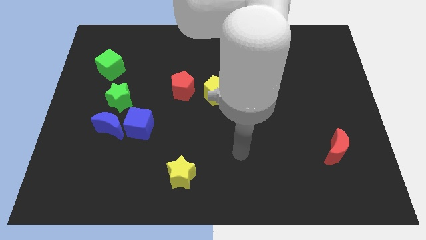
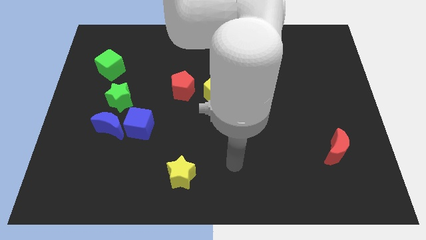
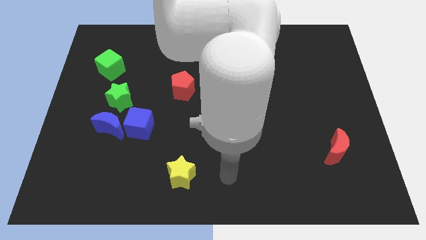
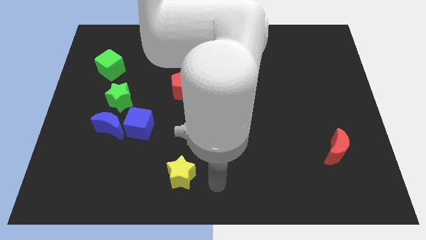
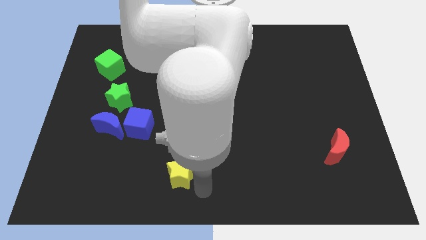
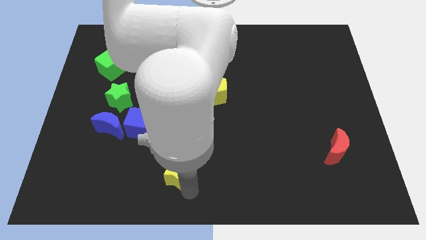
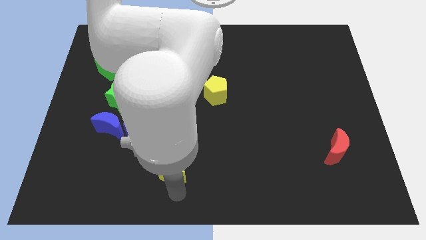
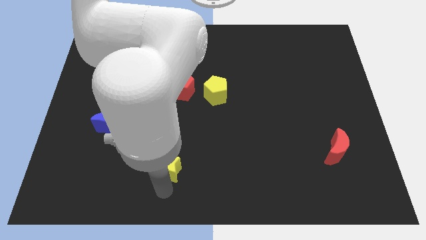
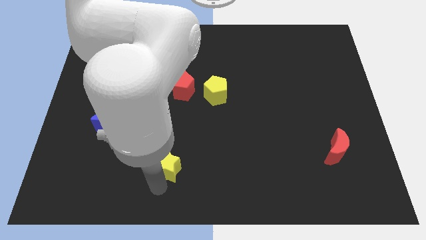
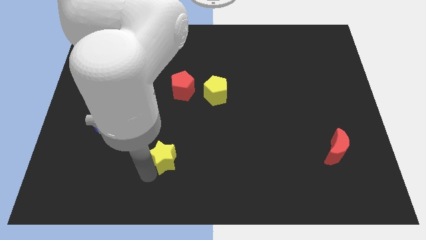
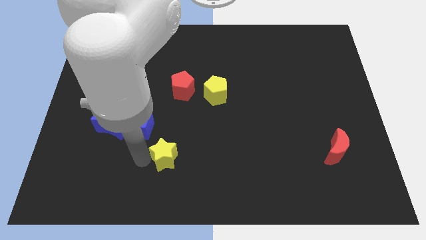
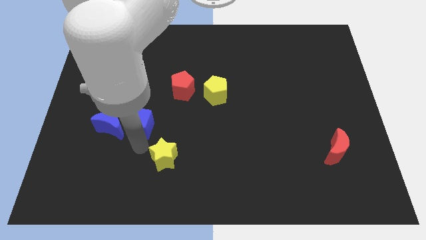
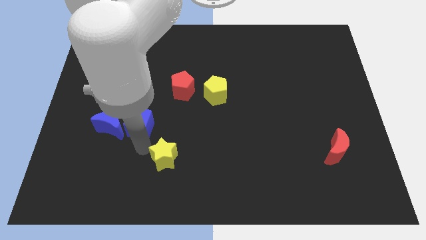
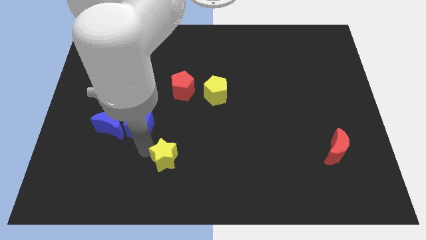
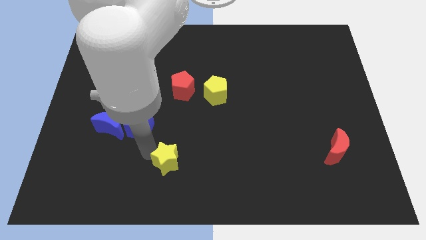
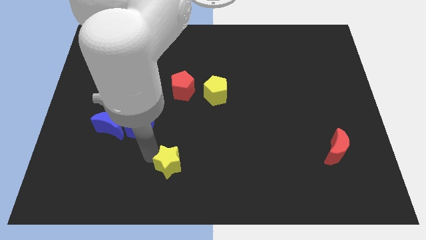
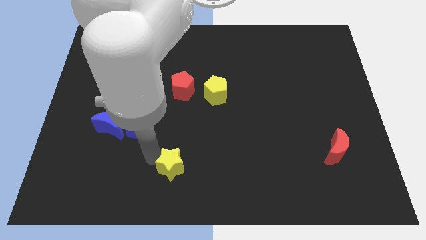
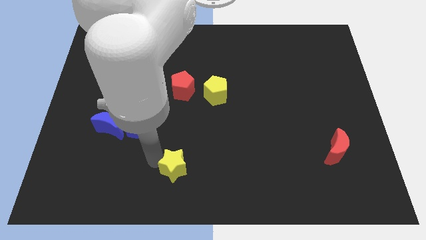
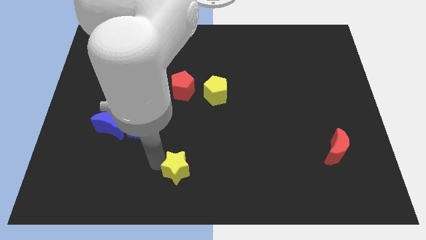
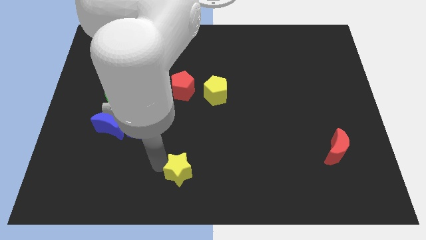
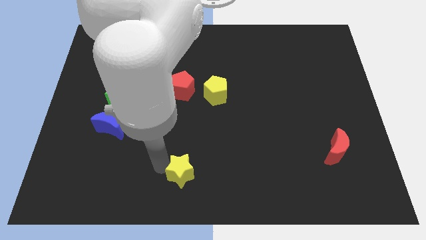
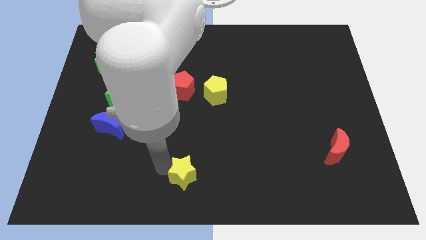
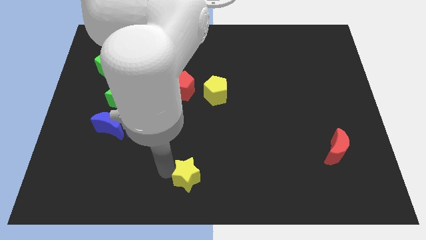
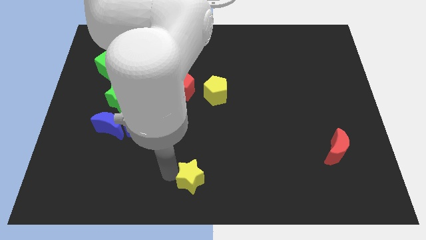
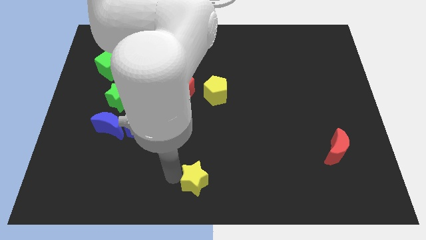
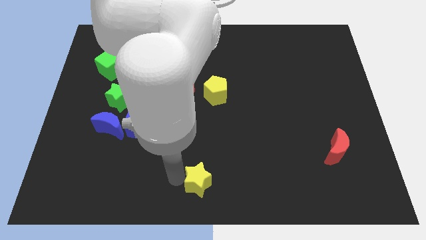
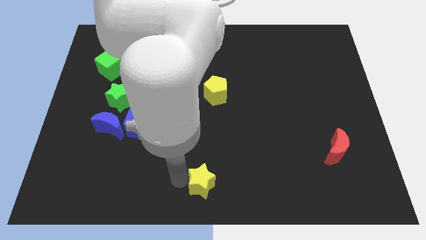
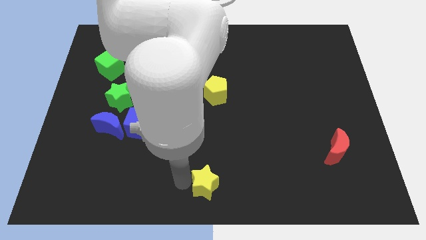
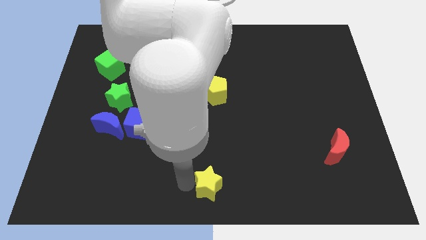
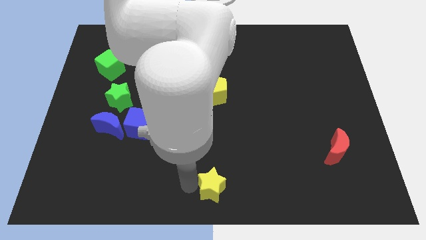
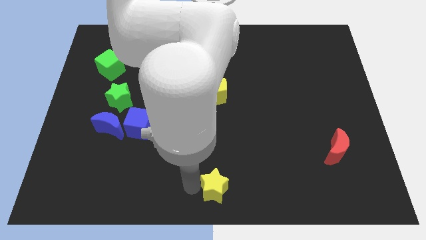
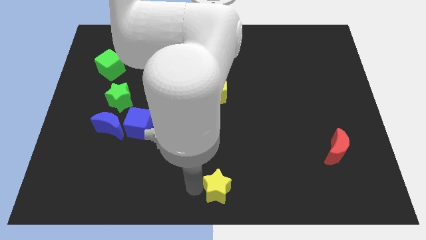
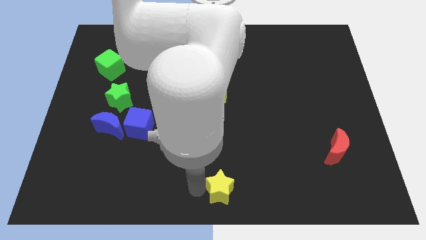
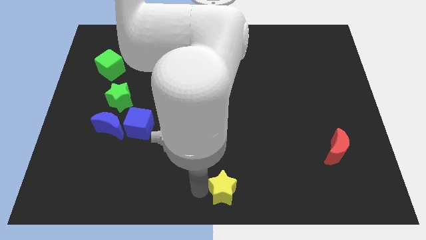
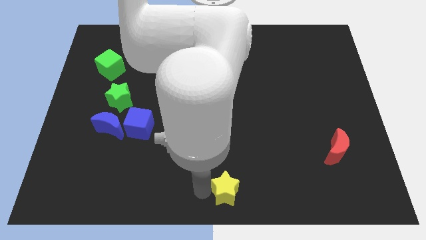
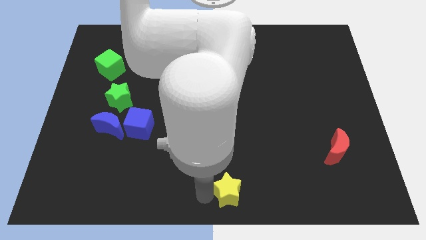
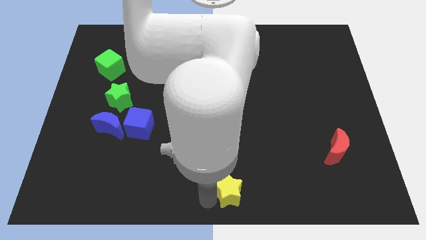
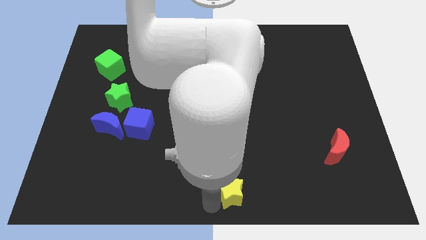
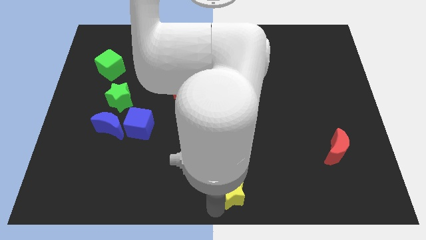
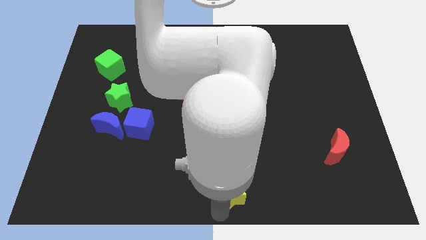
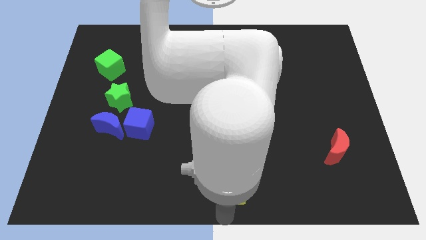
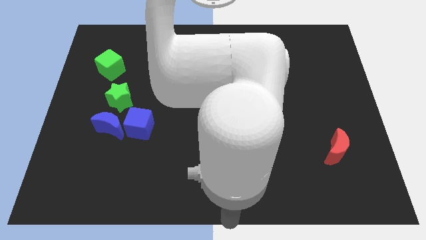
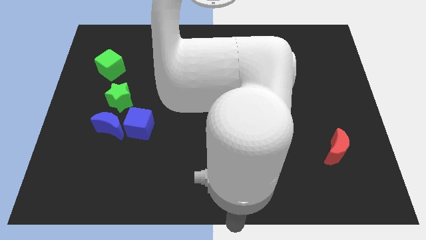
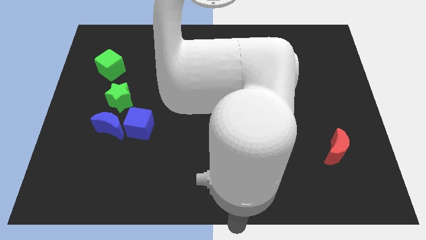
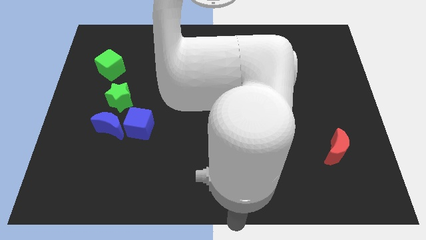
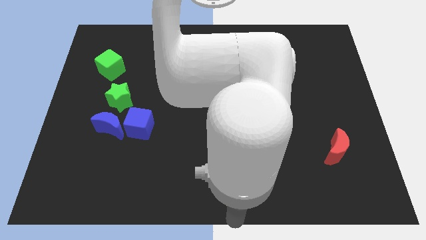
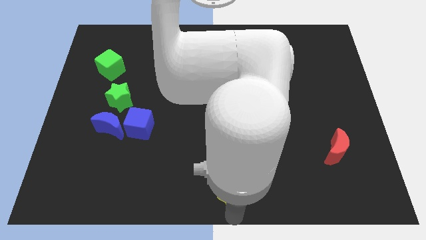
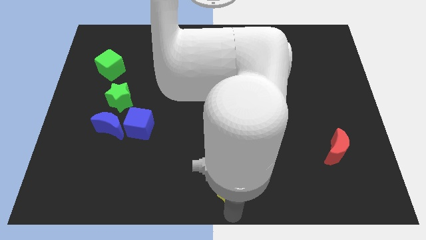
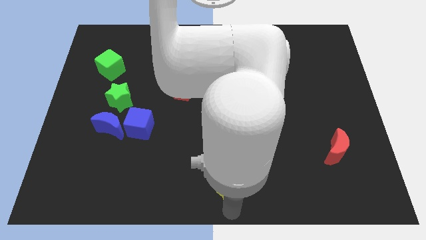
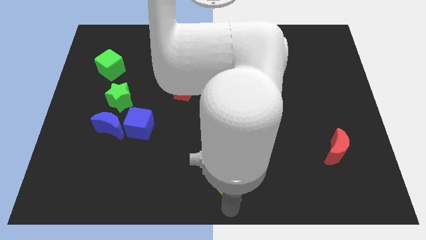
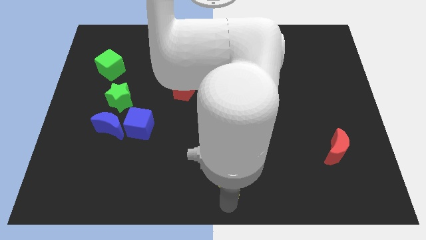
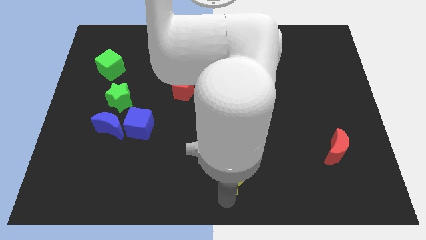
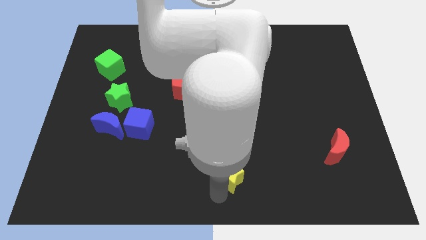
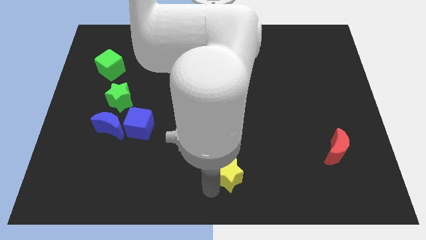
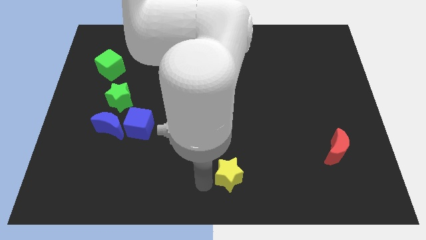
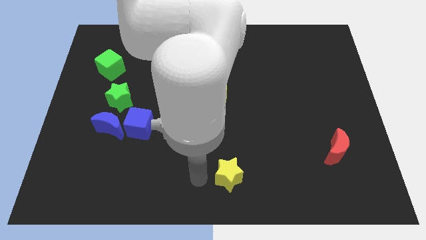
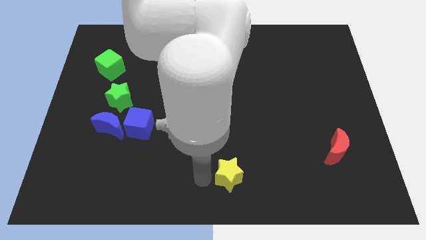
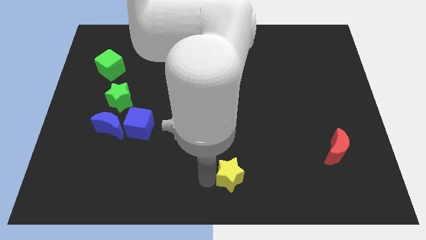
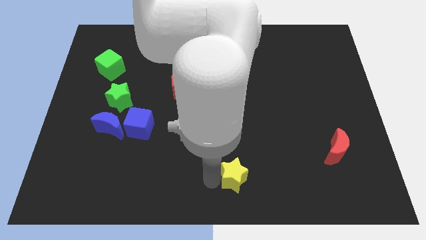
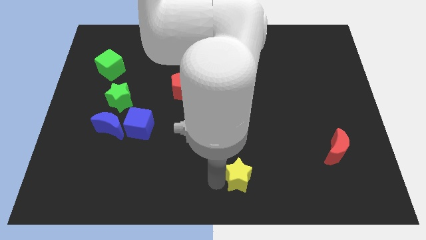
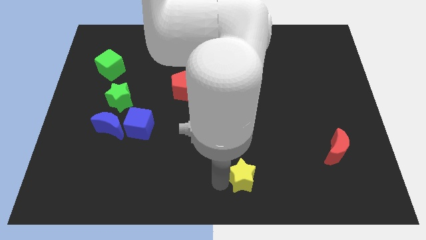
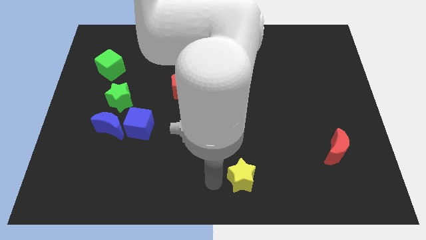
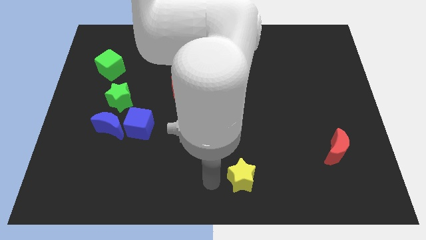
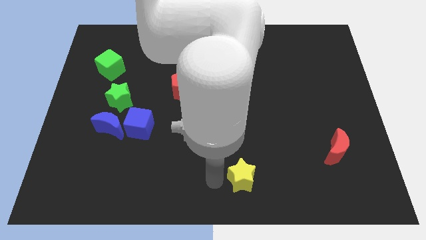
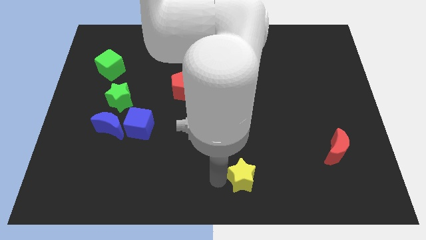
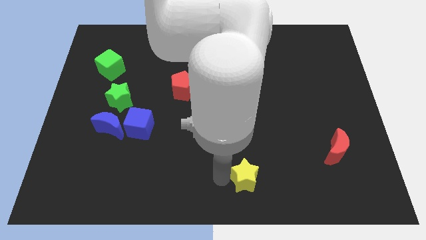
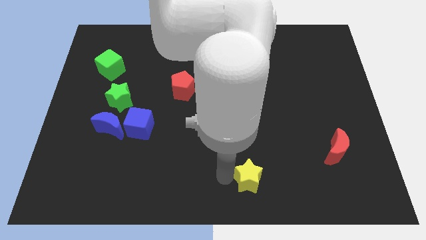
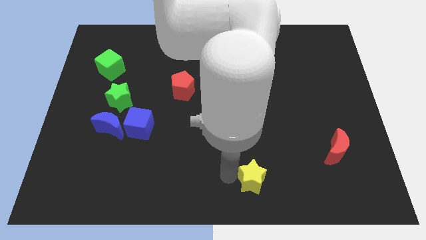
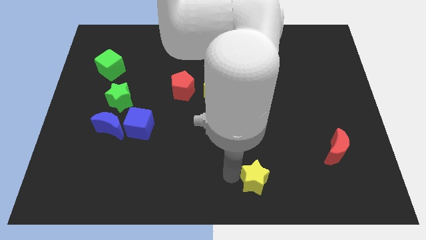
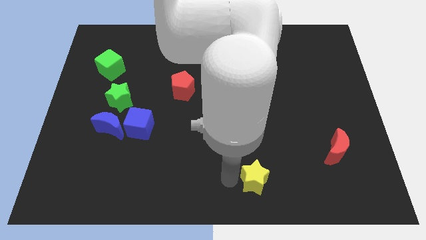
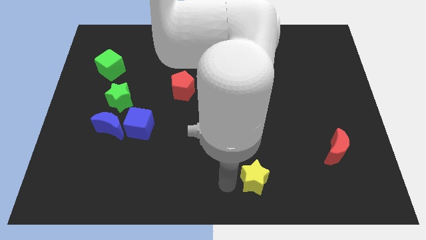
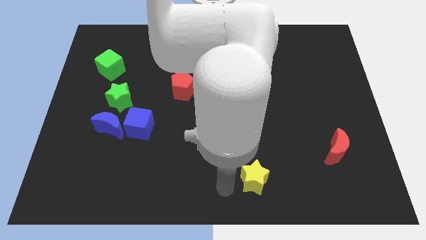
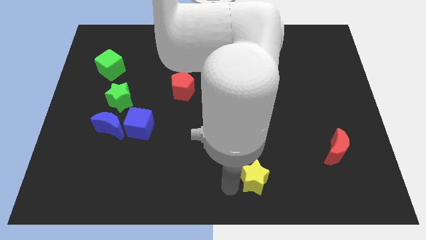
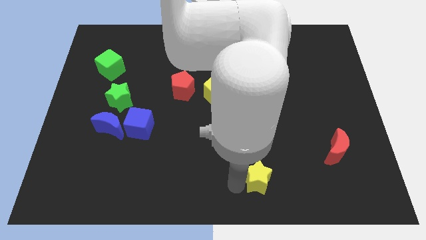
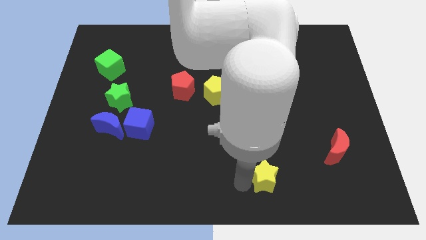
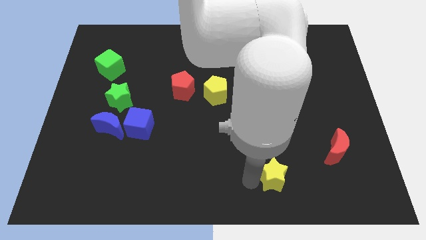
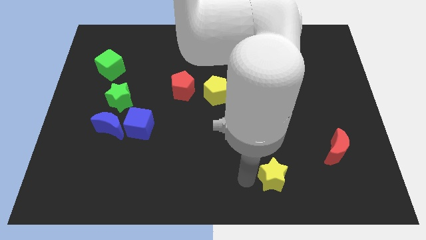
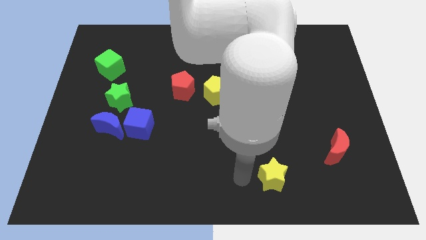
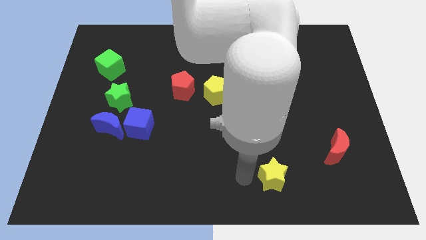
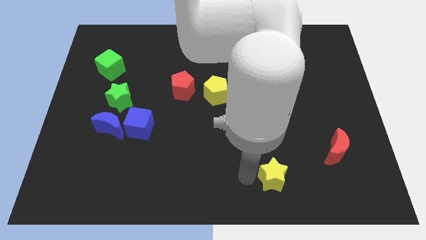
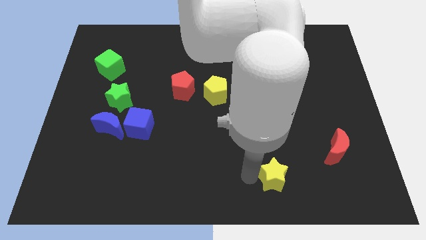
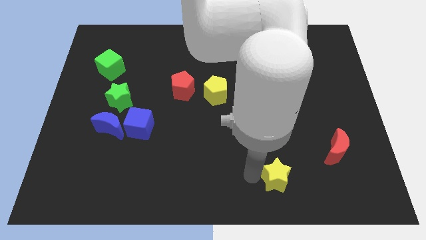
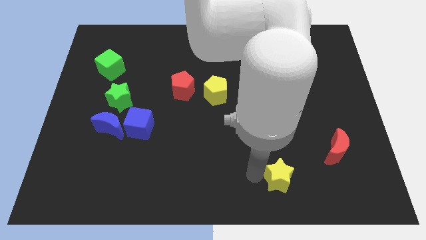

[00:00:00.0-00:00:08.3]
move the yellow star right
